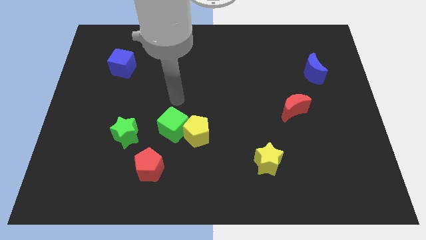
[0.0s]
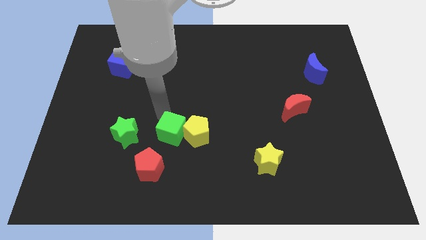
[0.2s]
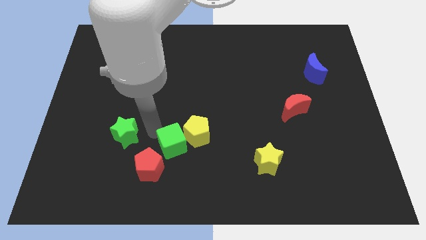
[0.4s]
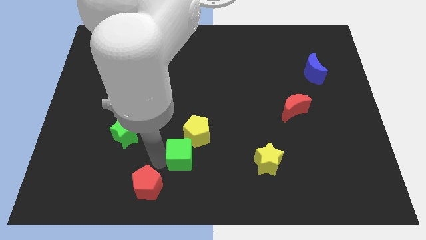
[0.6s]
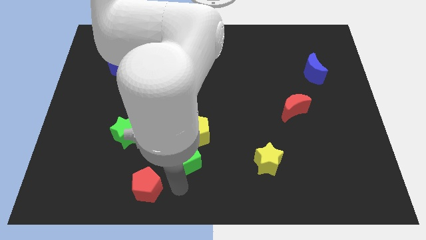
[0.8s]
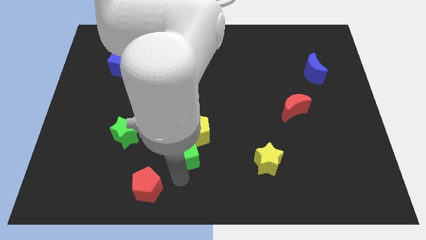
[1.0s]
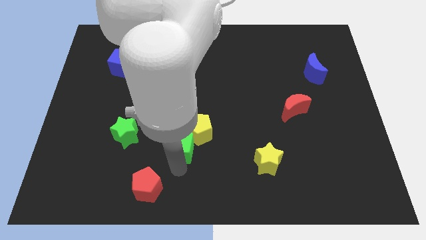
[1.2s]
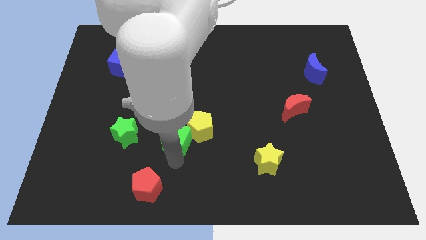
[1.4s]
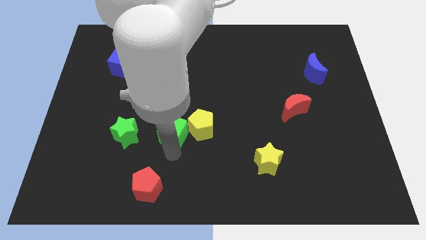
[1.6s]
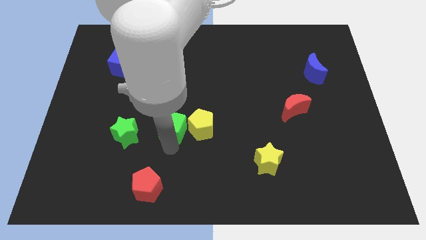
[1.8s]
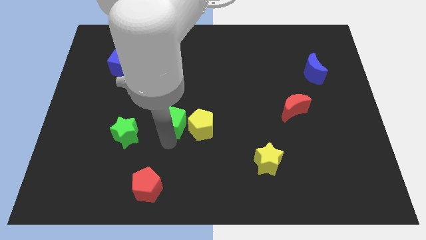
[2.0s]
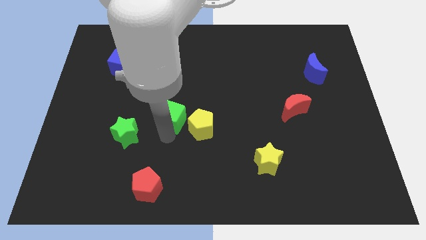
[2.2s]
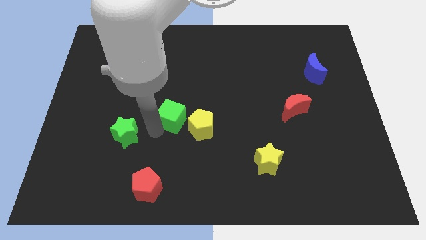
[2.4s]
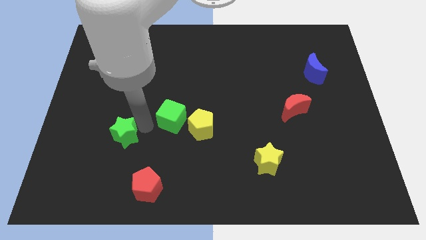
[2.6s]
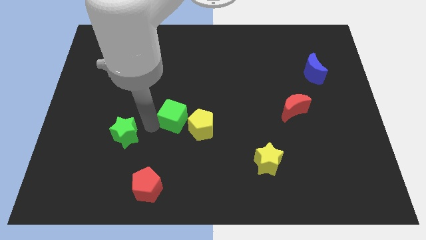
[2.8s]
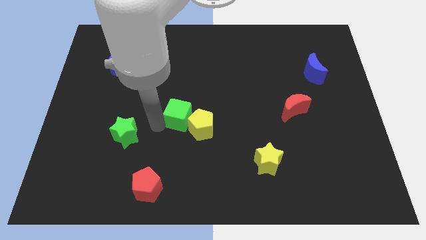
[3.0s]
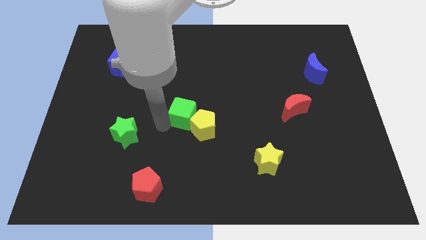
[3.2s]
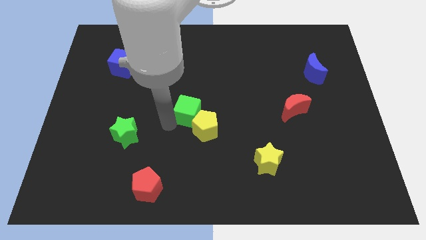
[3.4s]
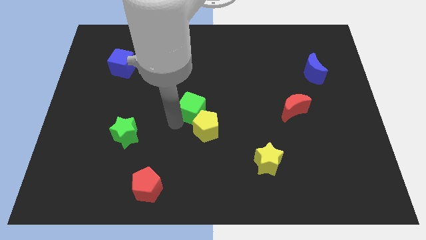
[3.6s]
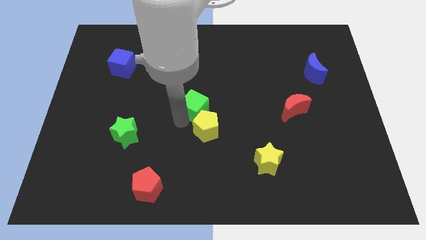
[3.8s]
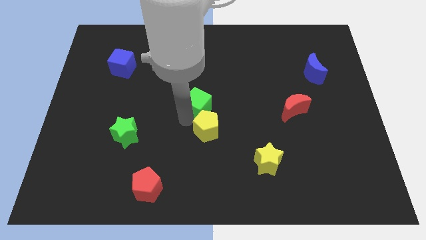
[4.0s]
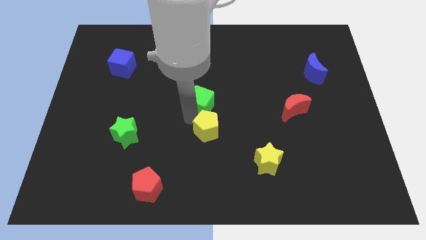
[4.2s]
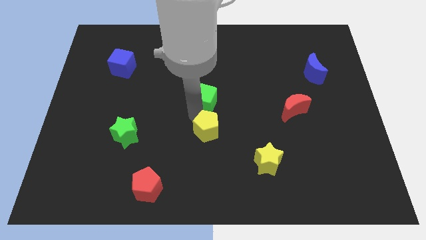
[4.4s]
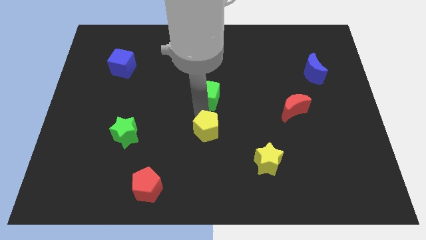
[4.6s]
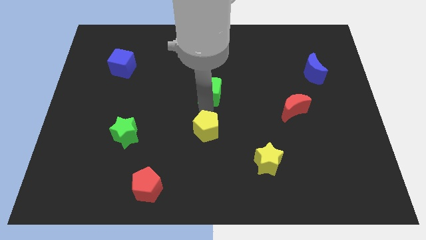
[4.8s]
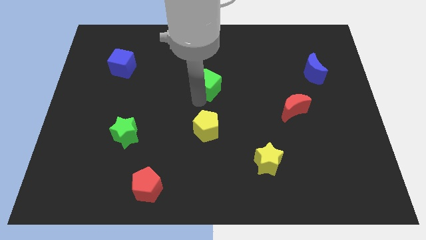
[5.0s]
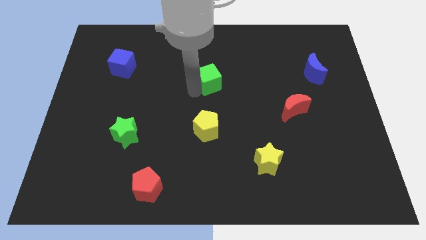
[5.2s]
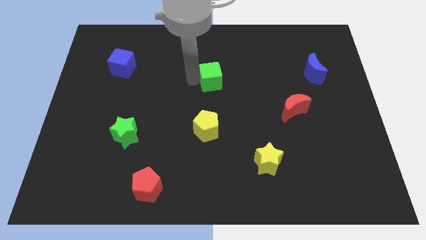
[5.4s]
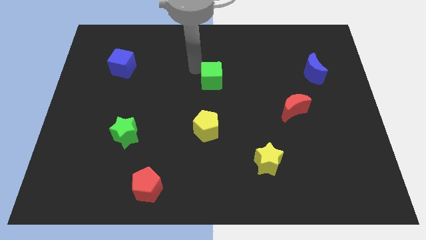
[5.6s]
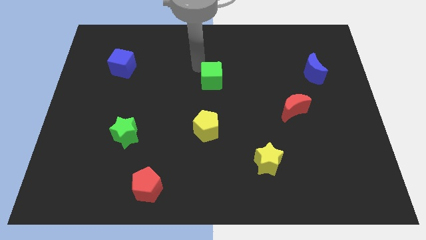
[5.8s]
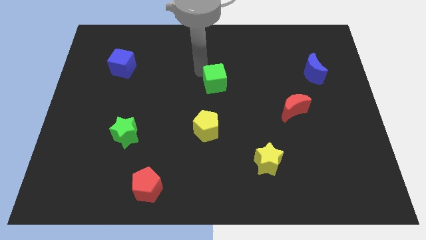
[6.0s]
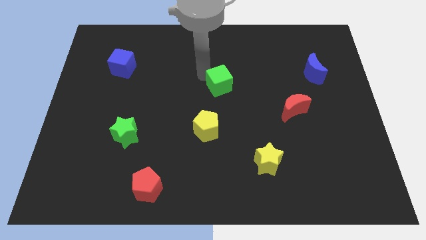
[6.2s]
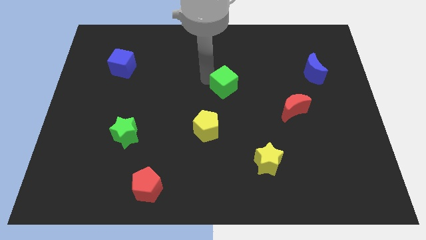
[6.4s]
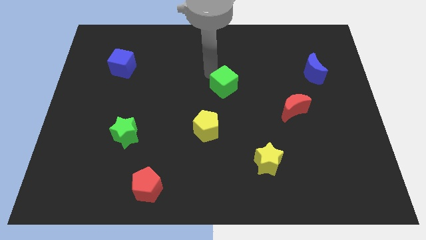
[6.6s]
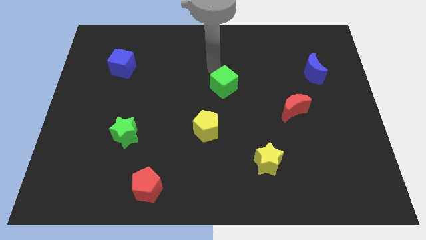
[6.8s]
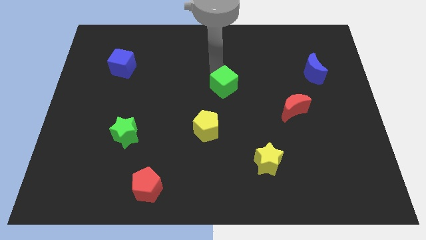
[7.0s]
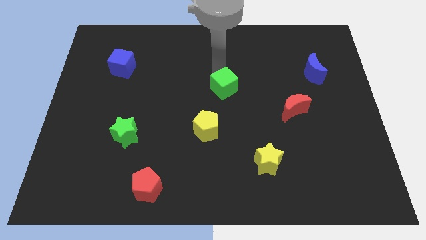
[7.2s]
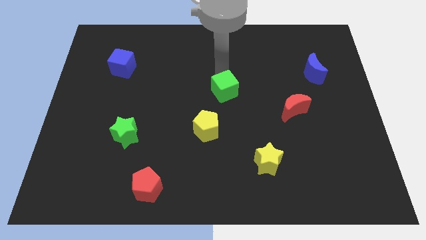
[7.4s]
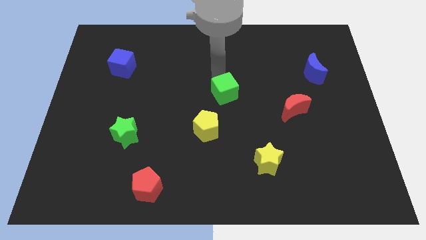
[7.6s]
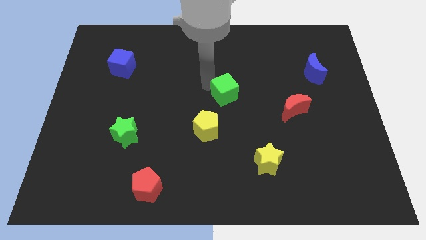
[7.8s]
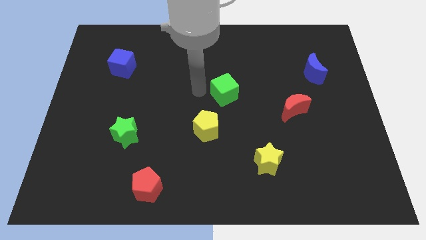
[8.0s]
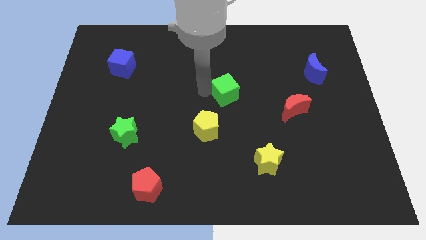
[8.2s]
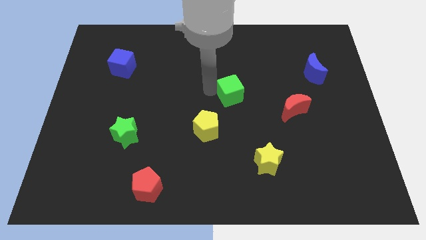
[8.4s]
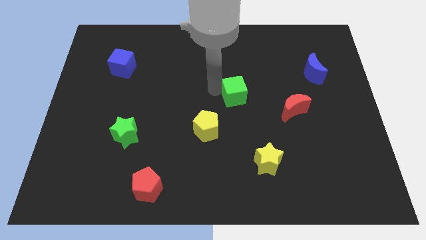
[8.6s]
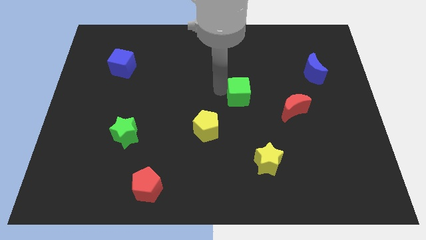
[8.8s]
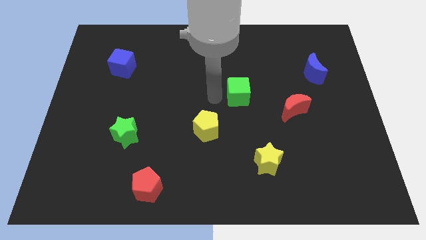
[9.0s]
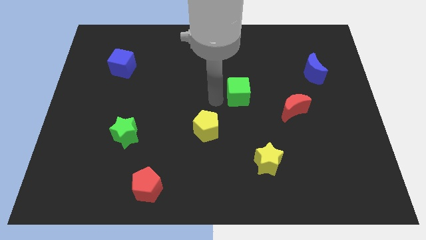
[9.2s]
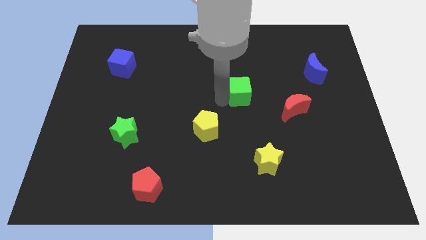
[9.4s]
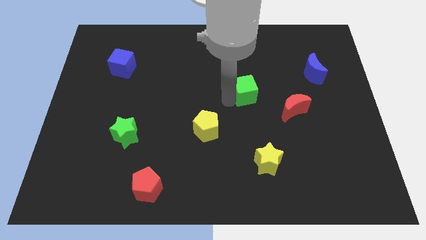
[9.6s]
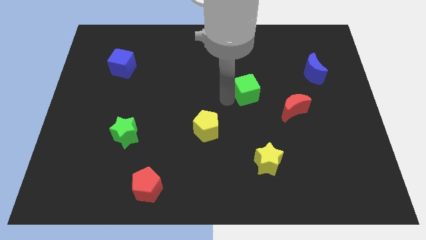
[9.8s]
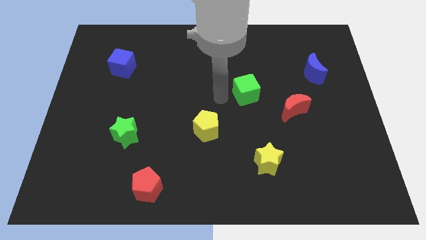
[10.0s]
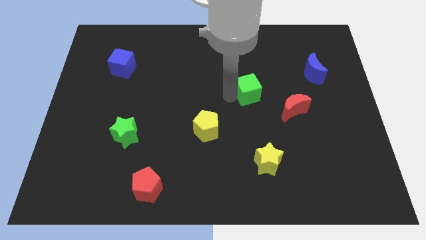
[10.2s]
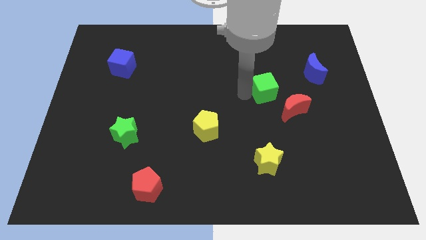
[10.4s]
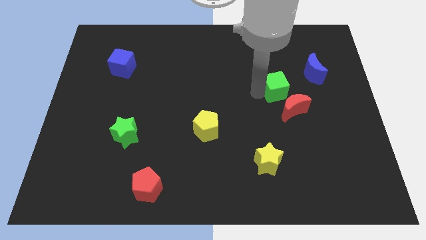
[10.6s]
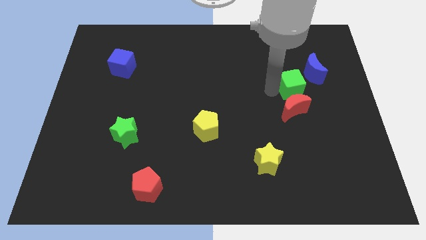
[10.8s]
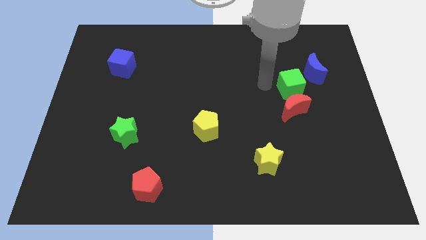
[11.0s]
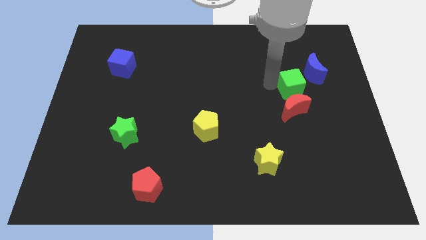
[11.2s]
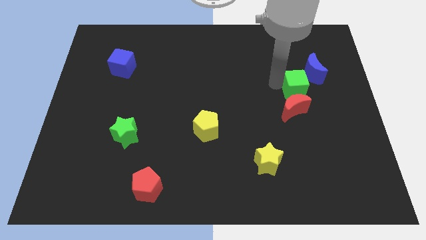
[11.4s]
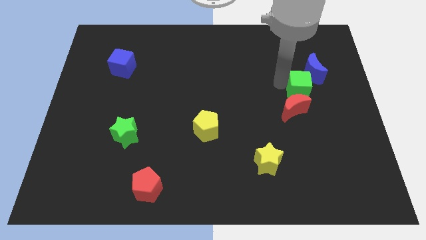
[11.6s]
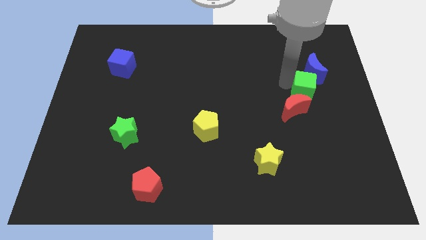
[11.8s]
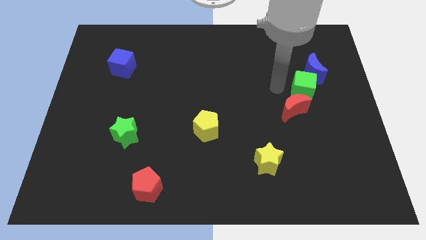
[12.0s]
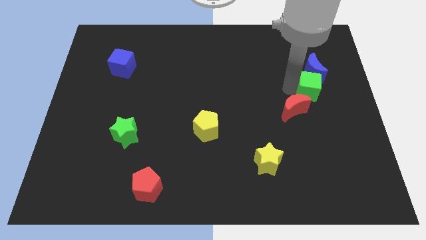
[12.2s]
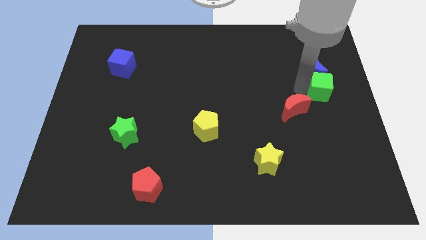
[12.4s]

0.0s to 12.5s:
move the green cube to the center right
